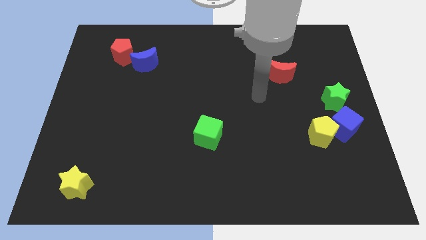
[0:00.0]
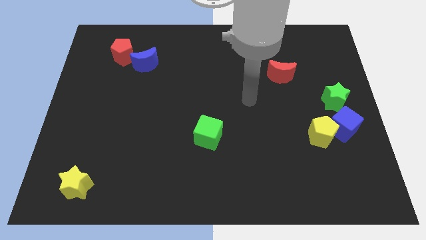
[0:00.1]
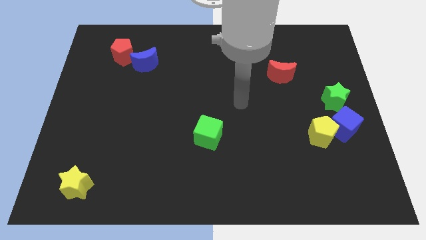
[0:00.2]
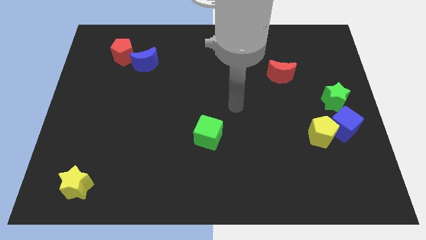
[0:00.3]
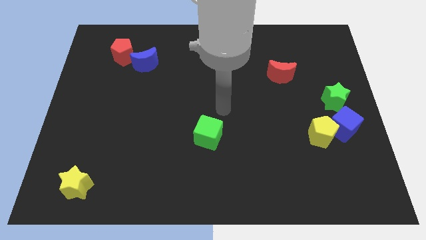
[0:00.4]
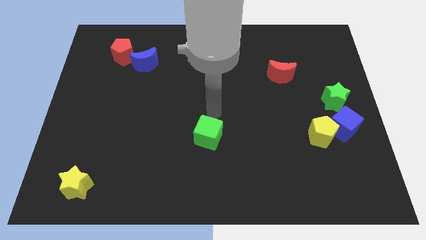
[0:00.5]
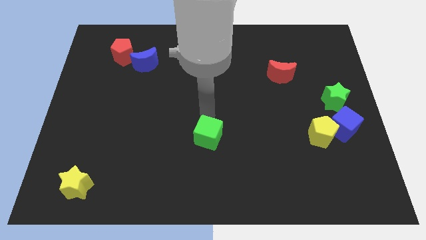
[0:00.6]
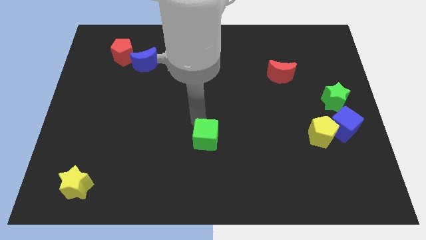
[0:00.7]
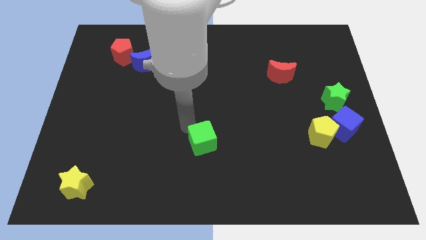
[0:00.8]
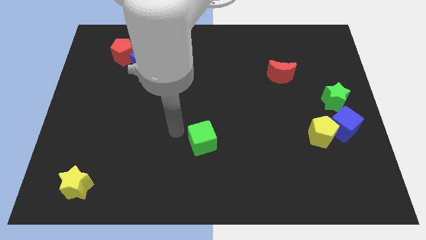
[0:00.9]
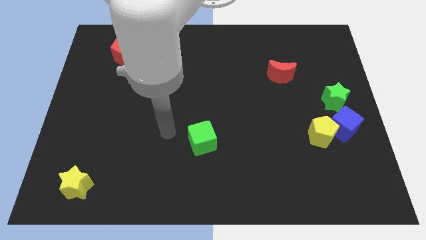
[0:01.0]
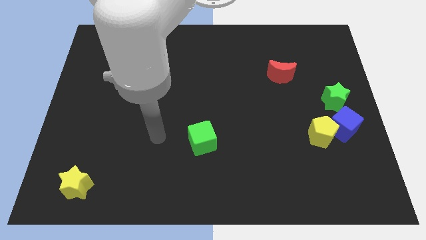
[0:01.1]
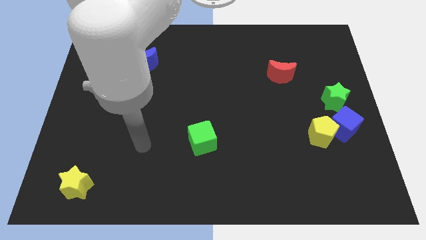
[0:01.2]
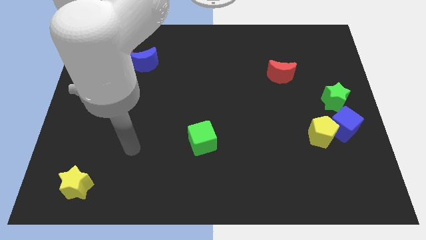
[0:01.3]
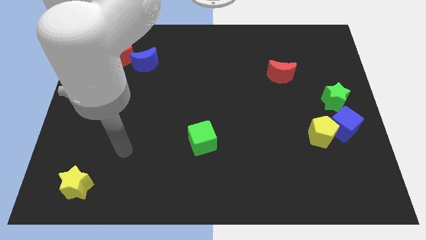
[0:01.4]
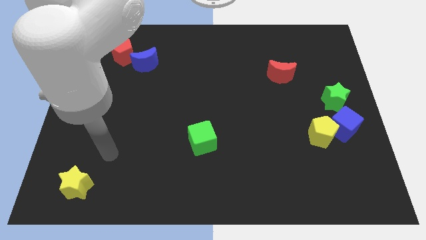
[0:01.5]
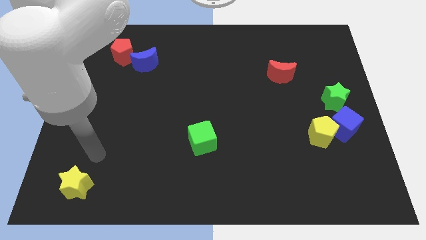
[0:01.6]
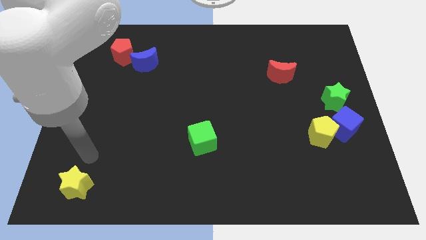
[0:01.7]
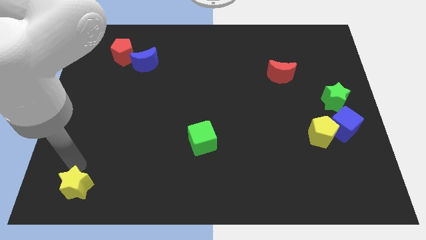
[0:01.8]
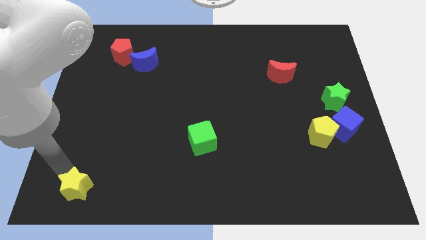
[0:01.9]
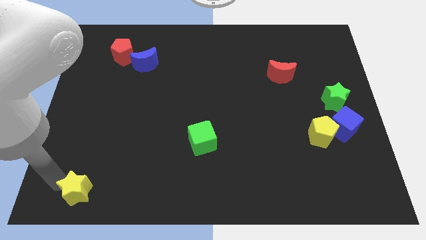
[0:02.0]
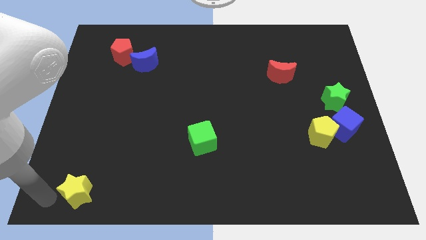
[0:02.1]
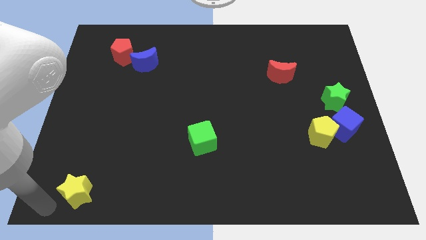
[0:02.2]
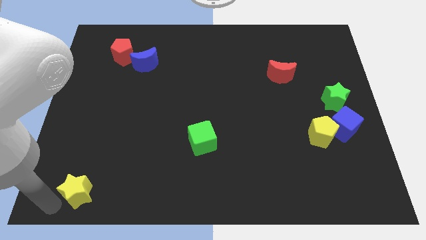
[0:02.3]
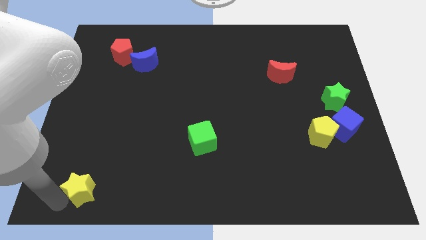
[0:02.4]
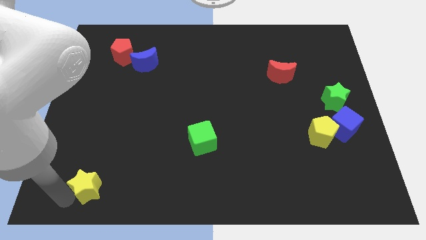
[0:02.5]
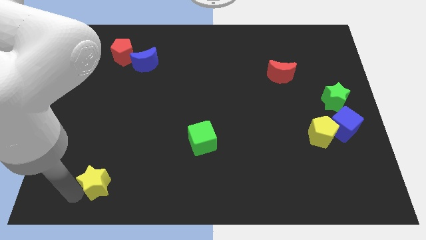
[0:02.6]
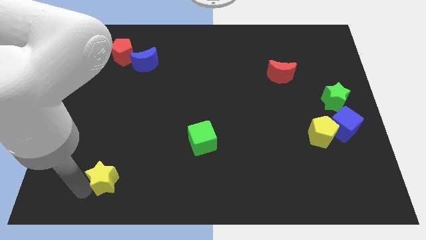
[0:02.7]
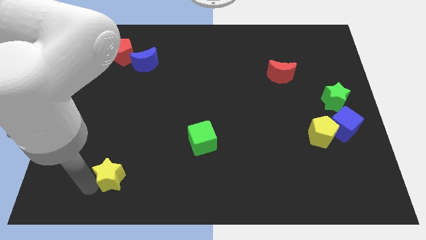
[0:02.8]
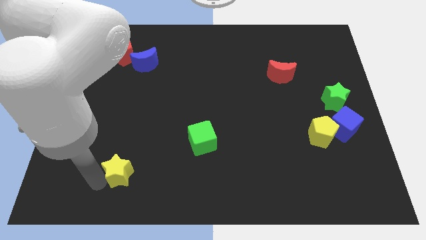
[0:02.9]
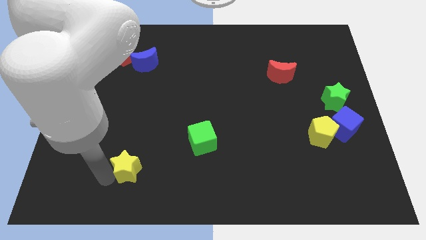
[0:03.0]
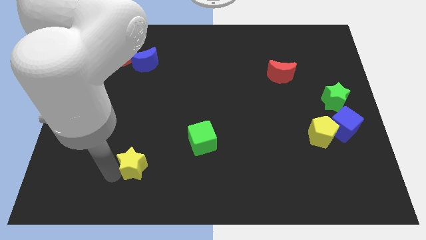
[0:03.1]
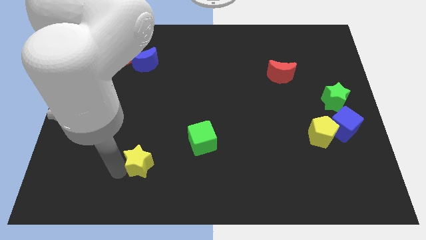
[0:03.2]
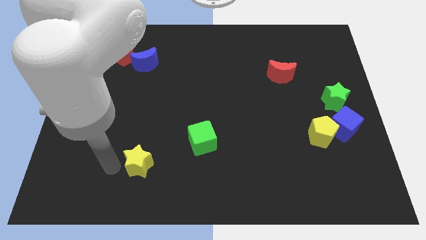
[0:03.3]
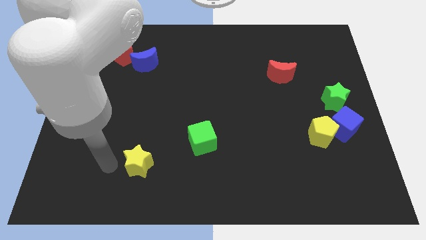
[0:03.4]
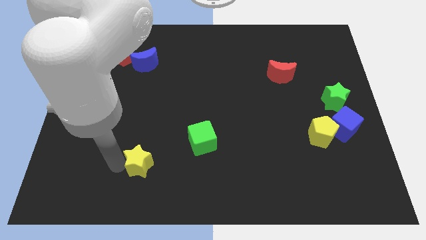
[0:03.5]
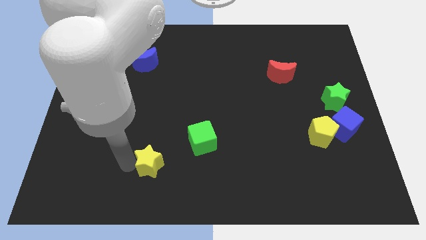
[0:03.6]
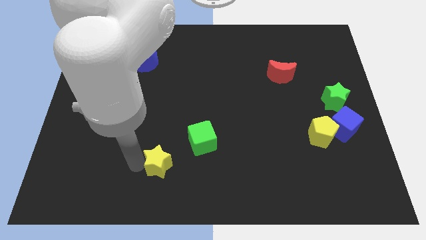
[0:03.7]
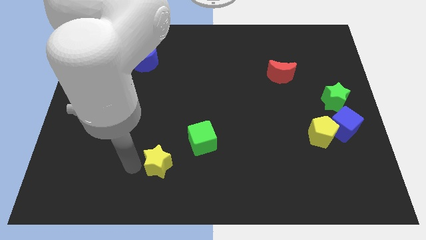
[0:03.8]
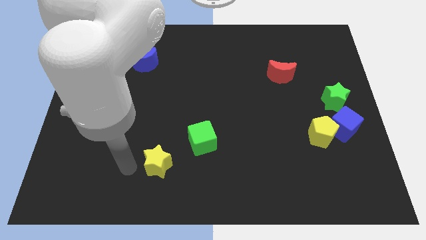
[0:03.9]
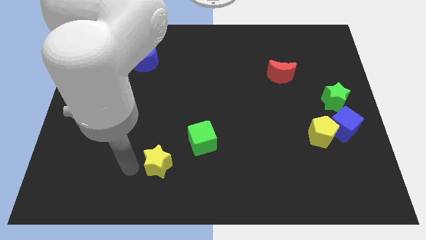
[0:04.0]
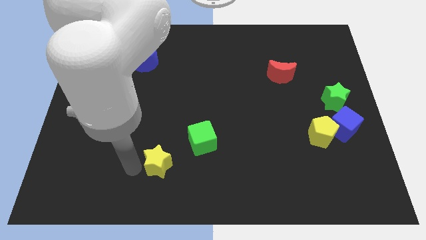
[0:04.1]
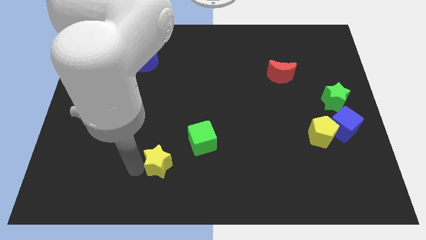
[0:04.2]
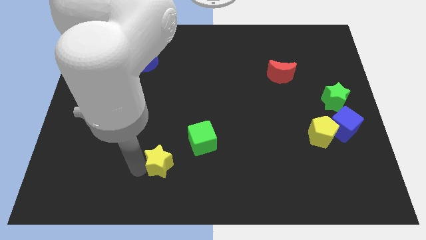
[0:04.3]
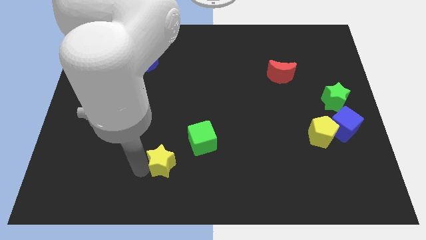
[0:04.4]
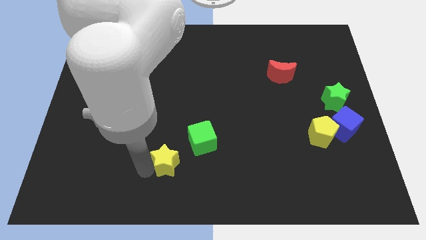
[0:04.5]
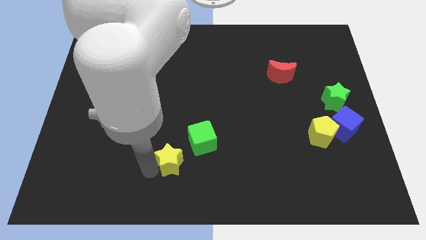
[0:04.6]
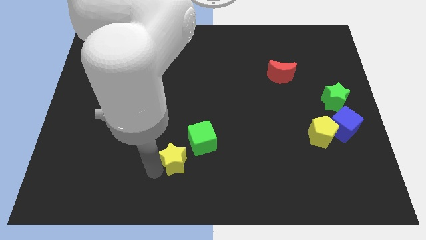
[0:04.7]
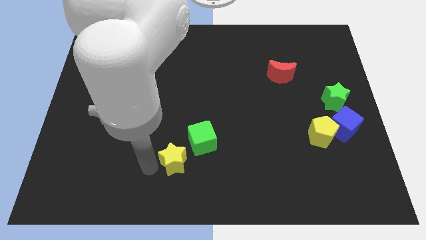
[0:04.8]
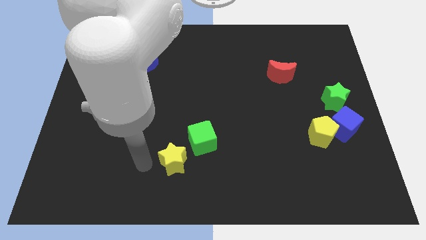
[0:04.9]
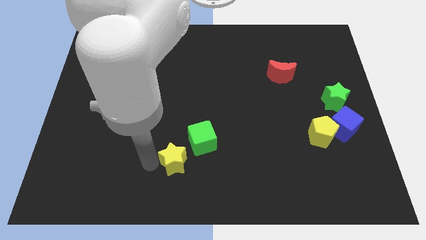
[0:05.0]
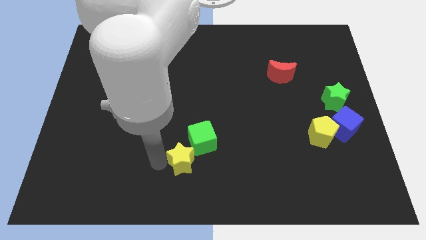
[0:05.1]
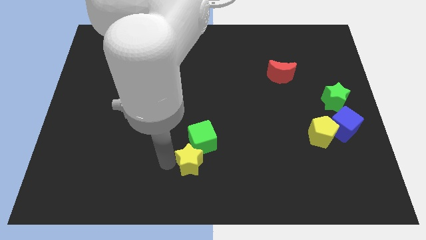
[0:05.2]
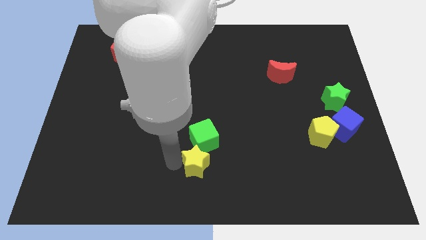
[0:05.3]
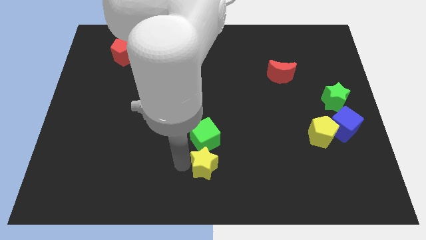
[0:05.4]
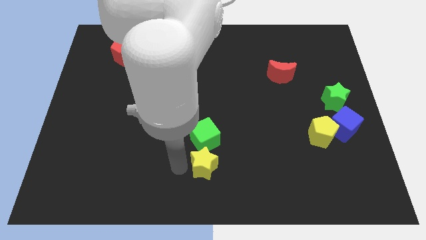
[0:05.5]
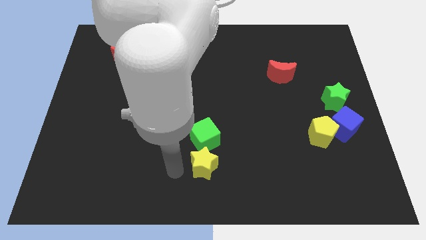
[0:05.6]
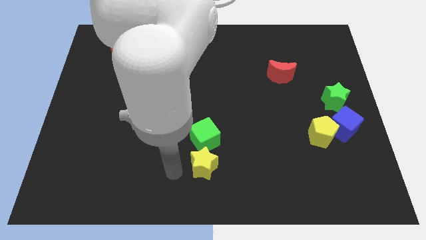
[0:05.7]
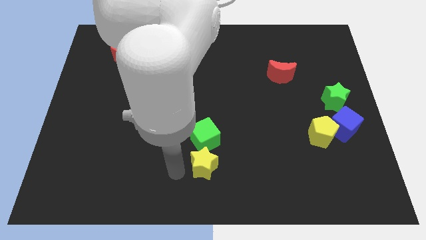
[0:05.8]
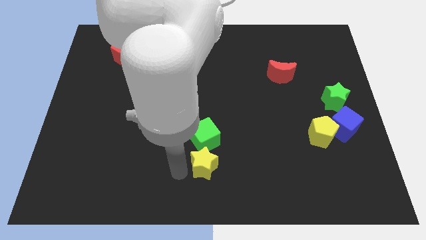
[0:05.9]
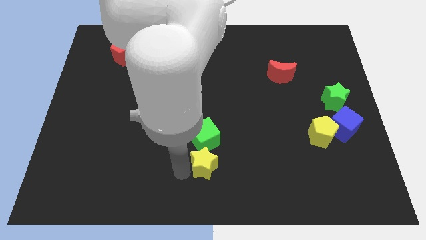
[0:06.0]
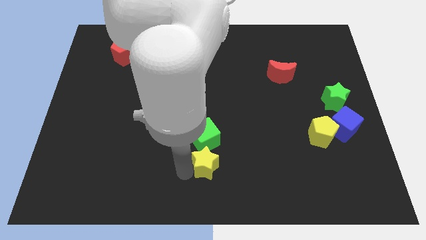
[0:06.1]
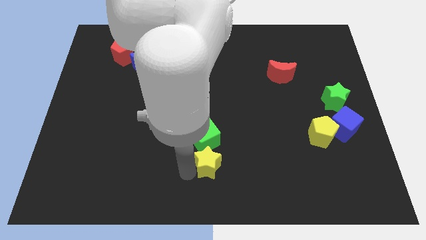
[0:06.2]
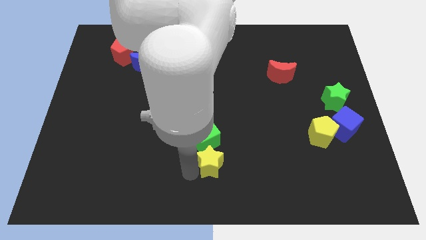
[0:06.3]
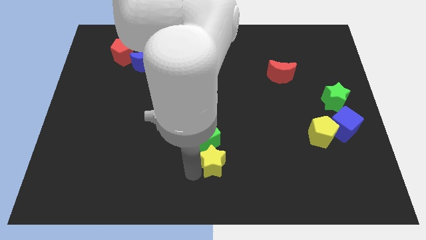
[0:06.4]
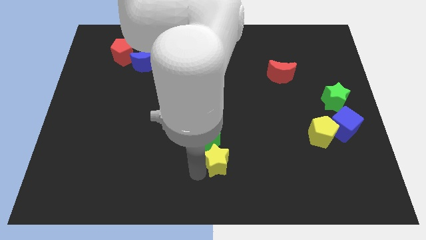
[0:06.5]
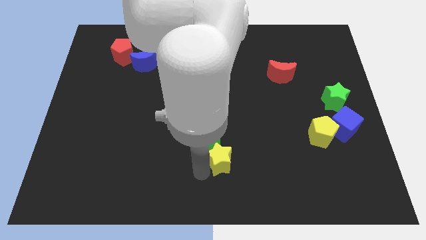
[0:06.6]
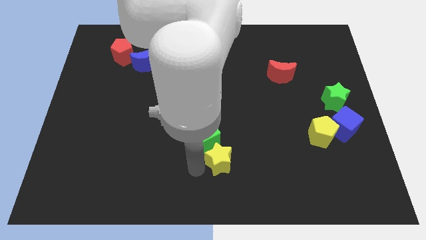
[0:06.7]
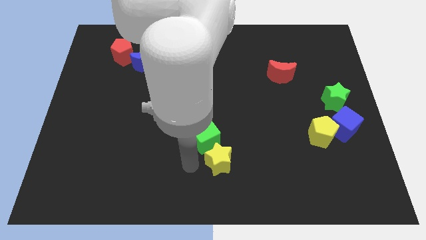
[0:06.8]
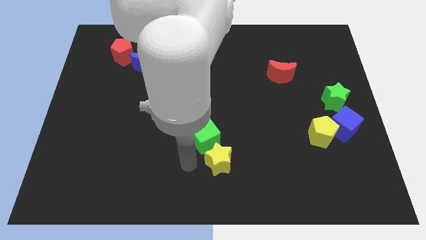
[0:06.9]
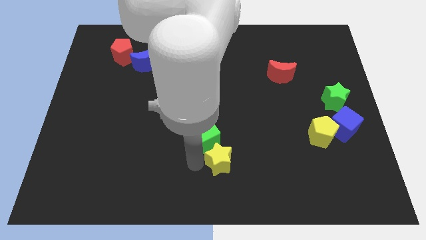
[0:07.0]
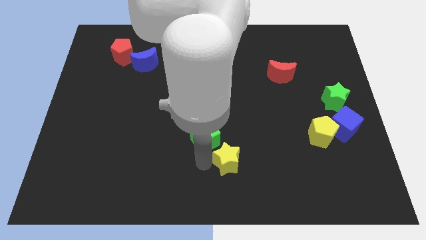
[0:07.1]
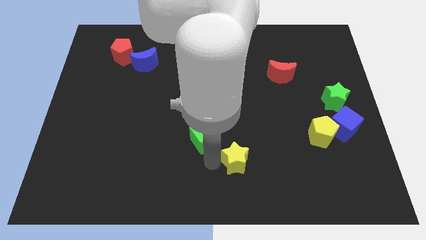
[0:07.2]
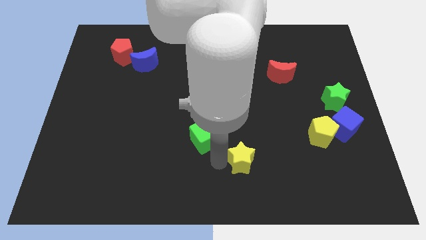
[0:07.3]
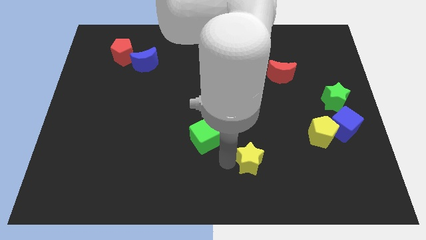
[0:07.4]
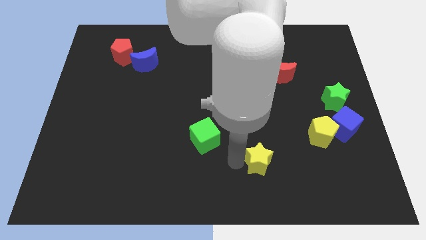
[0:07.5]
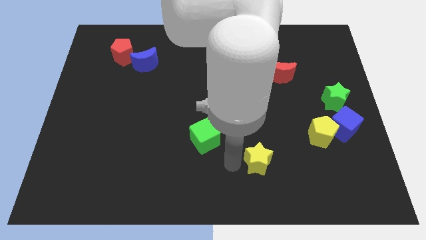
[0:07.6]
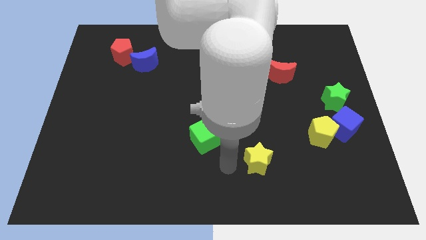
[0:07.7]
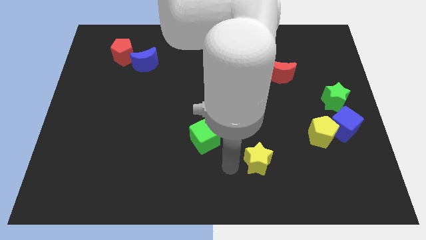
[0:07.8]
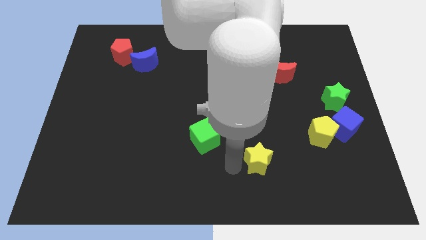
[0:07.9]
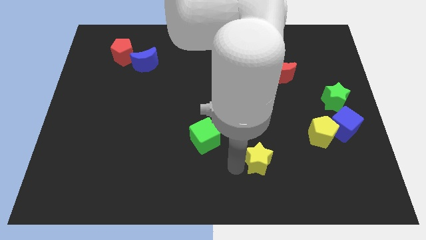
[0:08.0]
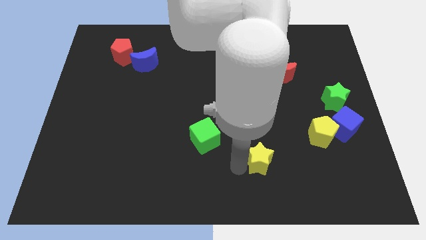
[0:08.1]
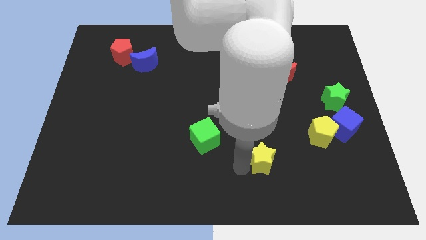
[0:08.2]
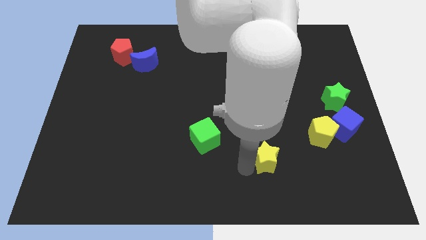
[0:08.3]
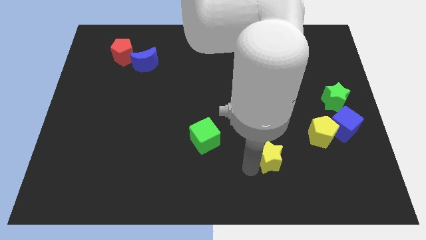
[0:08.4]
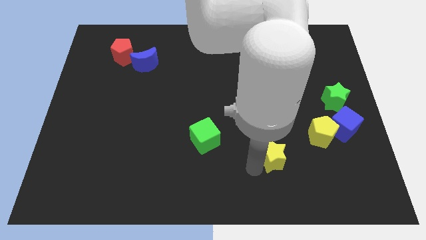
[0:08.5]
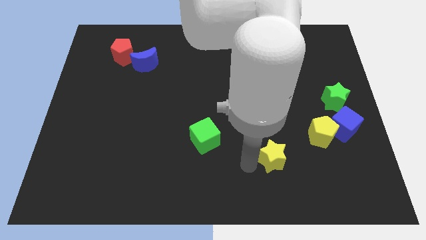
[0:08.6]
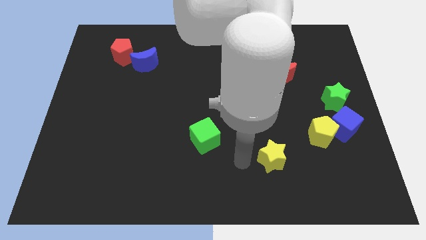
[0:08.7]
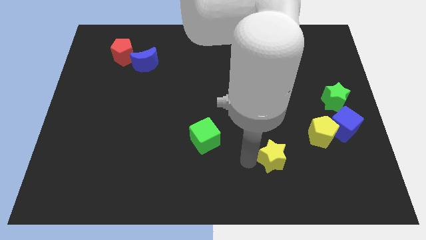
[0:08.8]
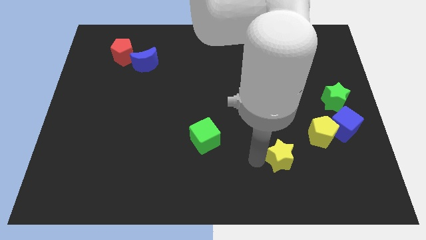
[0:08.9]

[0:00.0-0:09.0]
move the yellow star diagonally down and to the left of the yellow pentagon
